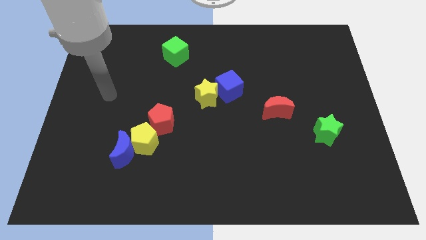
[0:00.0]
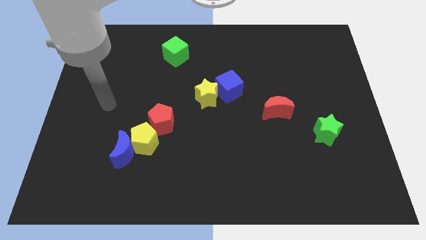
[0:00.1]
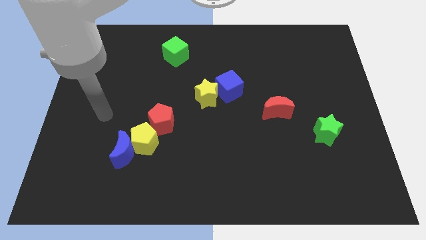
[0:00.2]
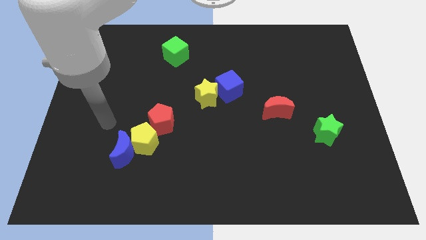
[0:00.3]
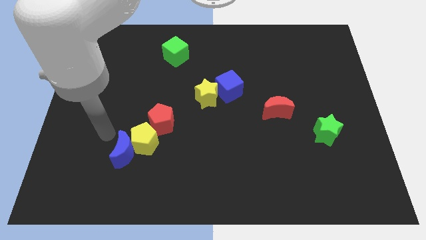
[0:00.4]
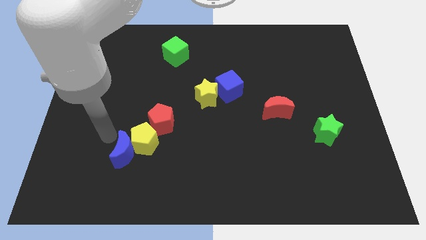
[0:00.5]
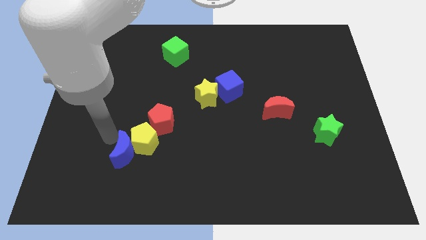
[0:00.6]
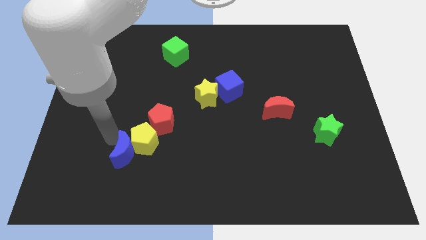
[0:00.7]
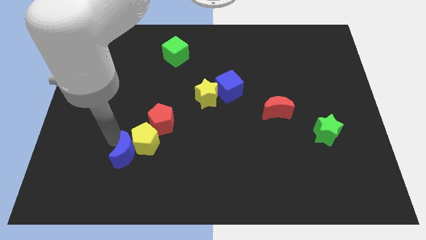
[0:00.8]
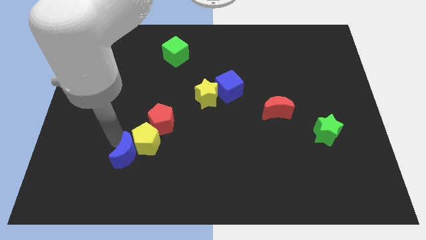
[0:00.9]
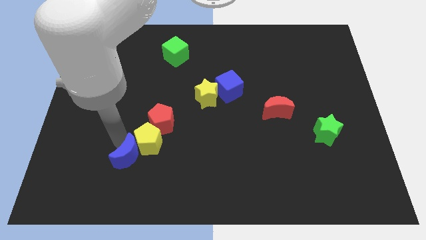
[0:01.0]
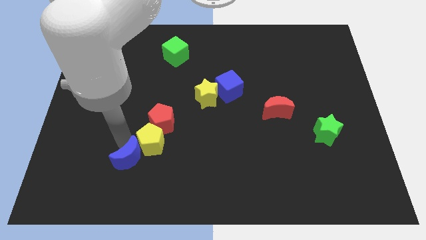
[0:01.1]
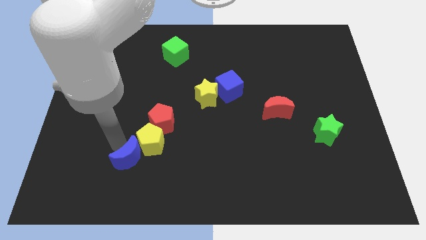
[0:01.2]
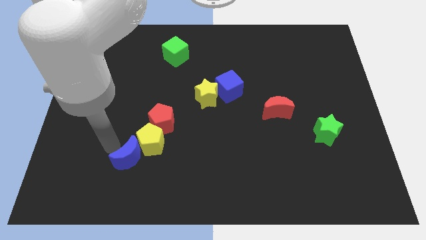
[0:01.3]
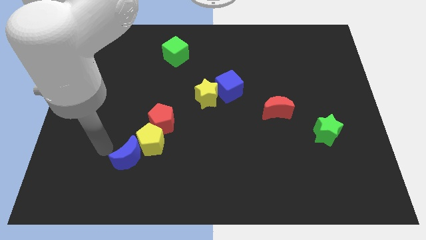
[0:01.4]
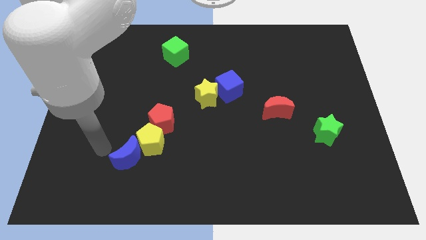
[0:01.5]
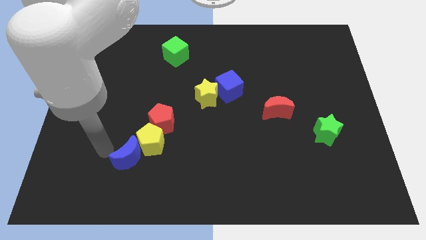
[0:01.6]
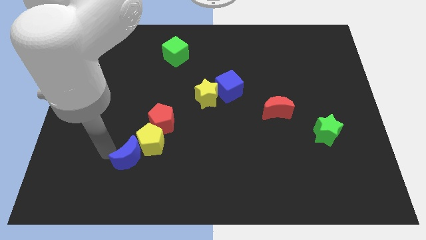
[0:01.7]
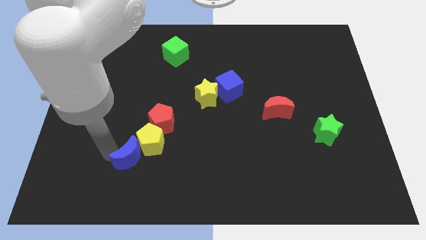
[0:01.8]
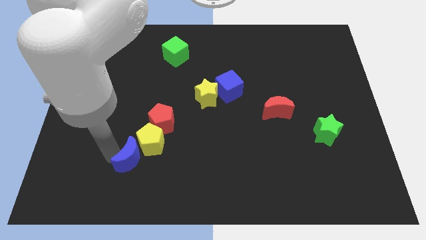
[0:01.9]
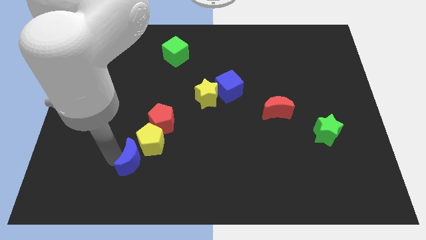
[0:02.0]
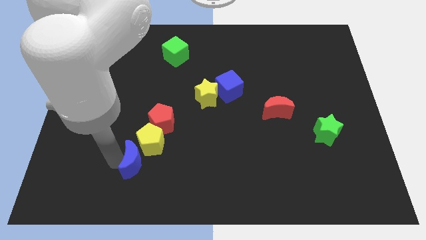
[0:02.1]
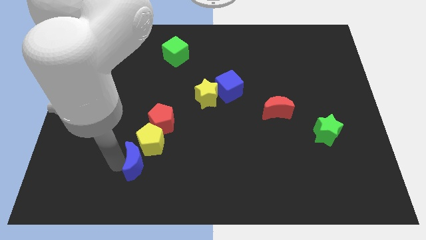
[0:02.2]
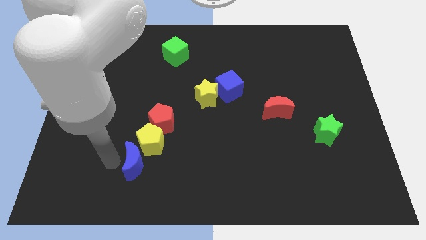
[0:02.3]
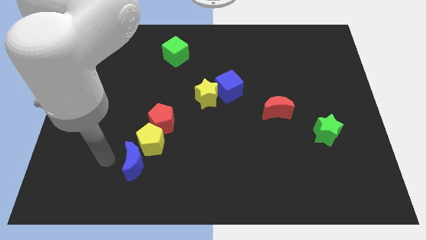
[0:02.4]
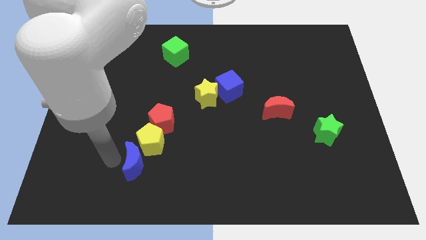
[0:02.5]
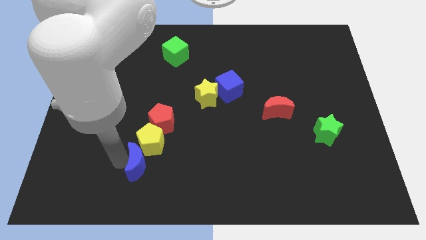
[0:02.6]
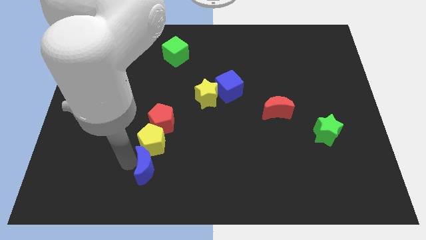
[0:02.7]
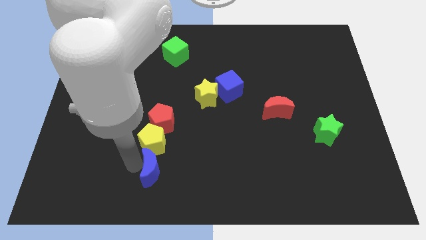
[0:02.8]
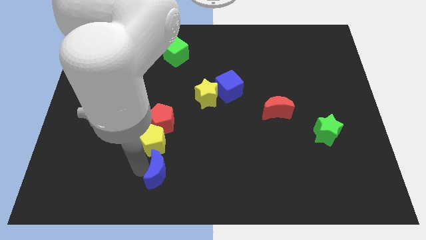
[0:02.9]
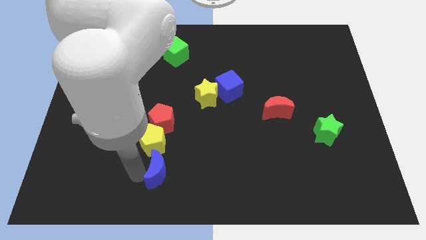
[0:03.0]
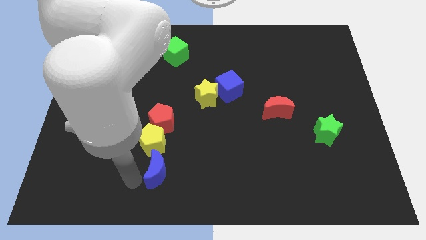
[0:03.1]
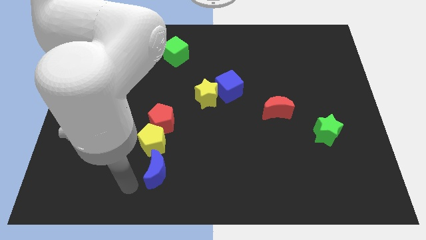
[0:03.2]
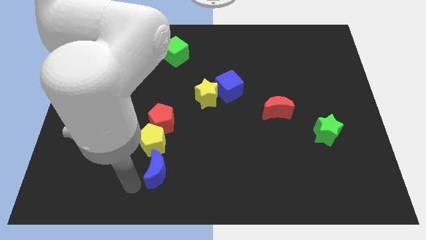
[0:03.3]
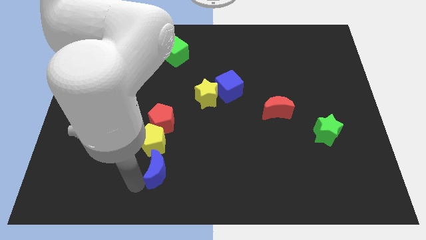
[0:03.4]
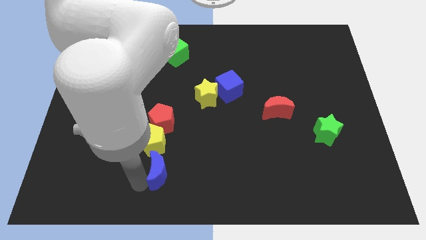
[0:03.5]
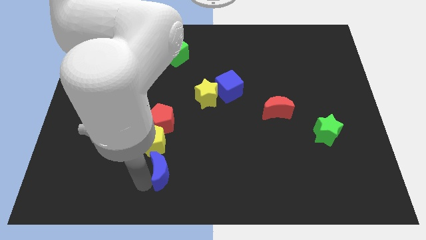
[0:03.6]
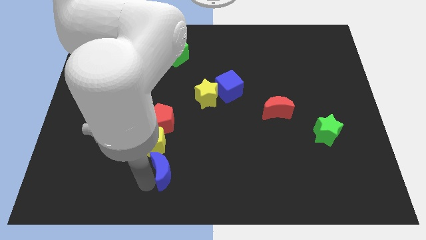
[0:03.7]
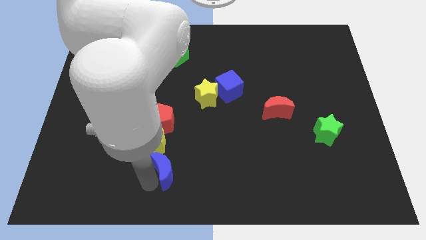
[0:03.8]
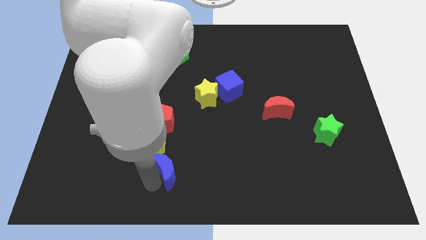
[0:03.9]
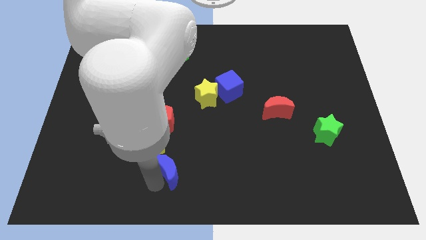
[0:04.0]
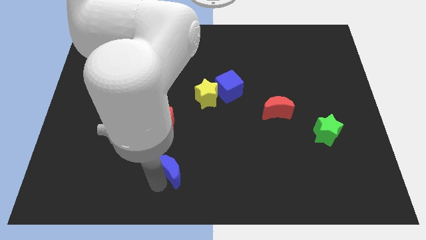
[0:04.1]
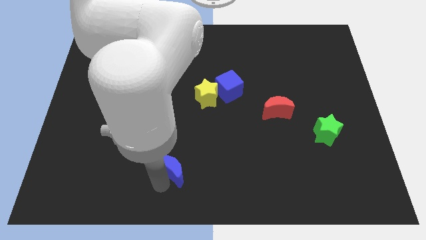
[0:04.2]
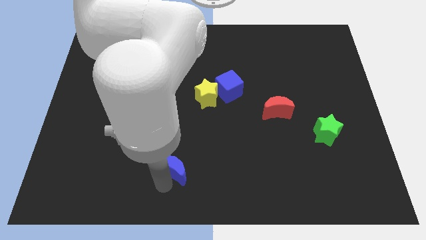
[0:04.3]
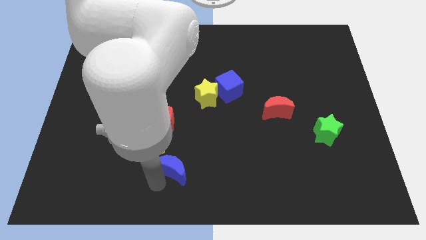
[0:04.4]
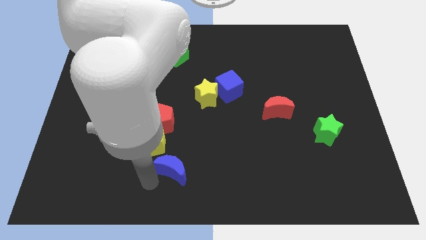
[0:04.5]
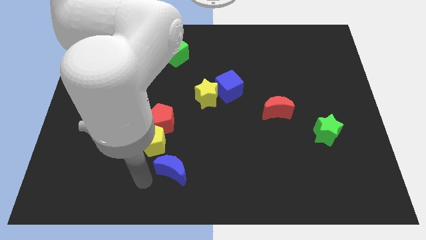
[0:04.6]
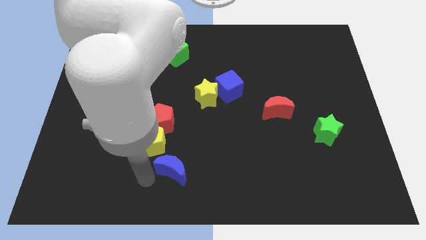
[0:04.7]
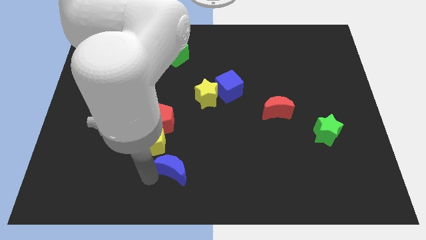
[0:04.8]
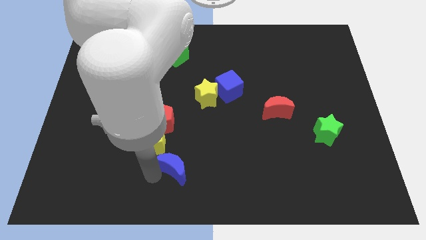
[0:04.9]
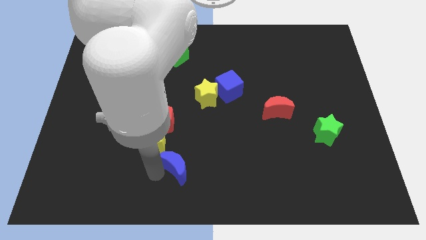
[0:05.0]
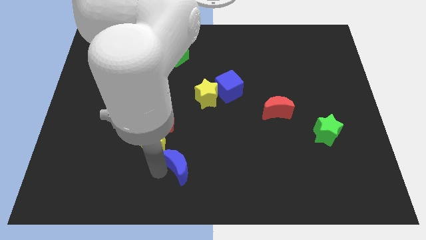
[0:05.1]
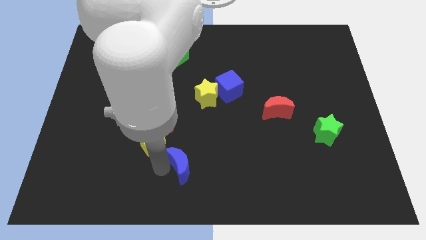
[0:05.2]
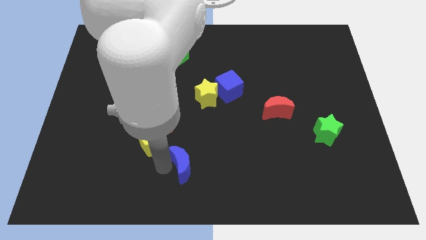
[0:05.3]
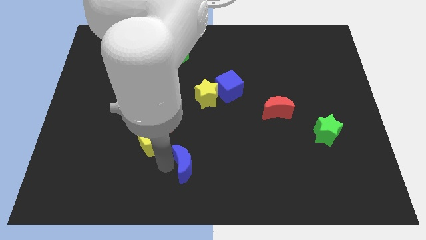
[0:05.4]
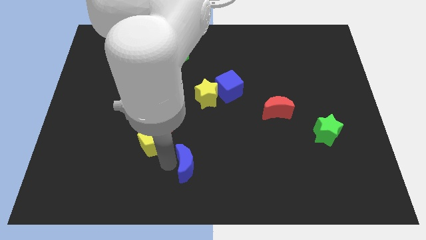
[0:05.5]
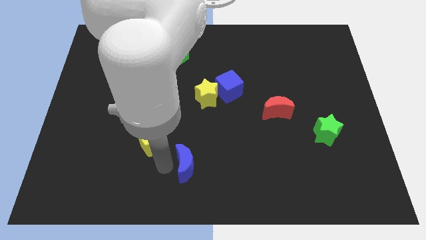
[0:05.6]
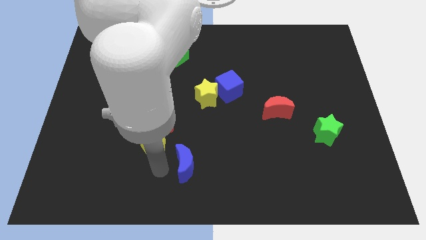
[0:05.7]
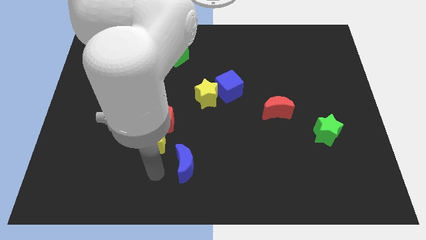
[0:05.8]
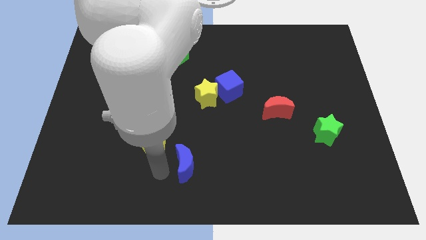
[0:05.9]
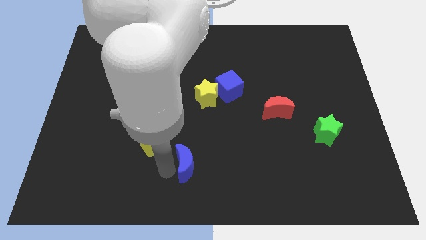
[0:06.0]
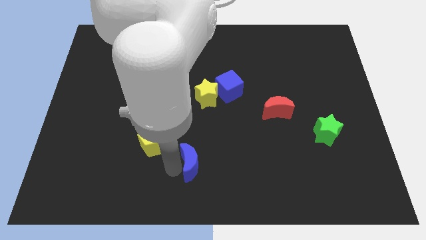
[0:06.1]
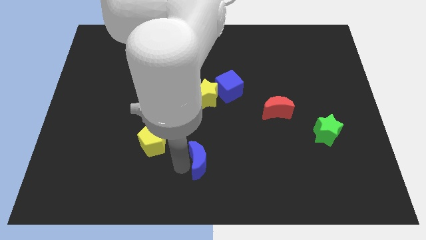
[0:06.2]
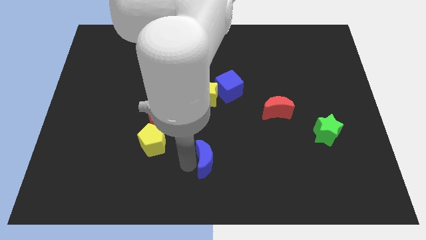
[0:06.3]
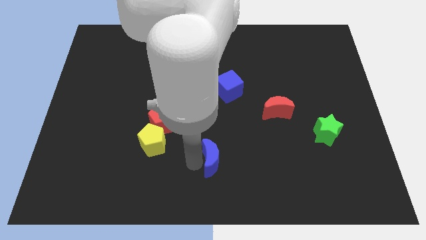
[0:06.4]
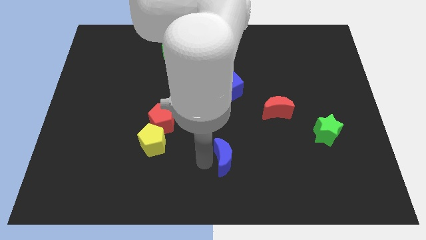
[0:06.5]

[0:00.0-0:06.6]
move the blue moon to the right

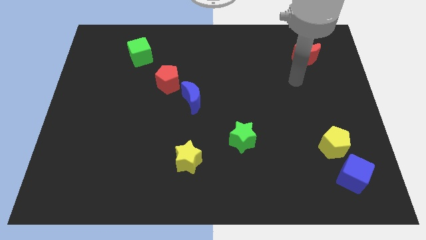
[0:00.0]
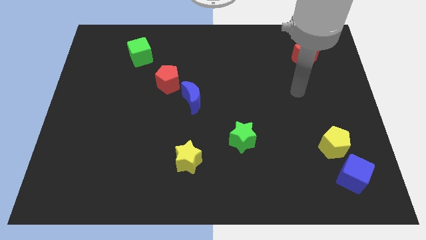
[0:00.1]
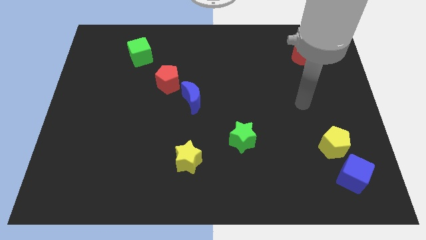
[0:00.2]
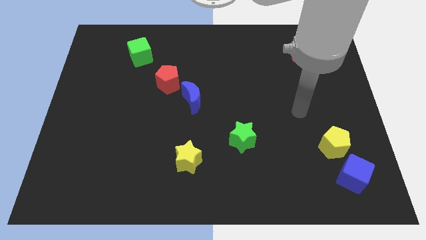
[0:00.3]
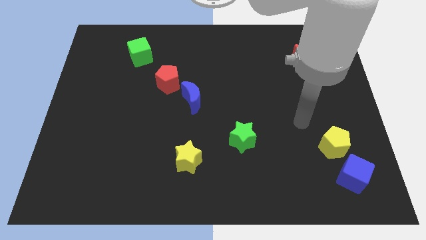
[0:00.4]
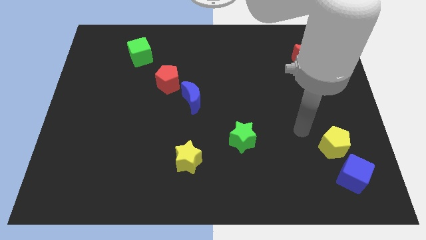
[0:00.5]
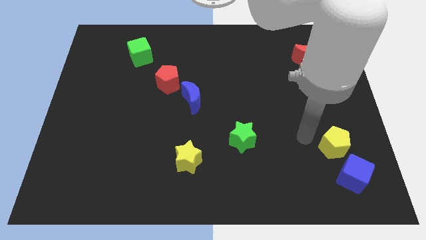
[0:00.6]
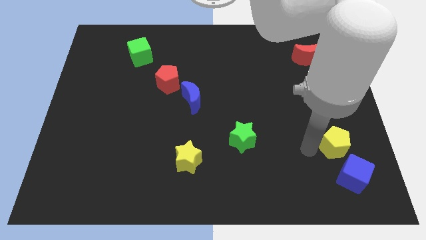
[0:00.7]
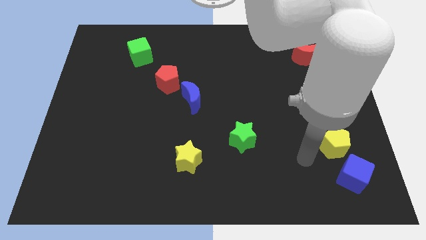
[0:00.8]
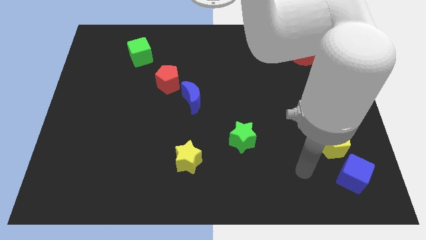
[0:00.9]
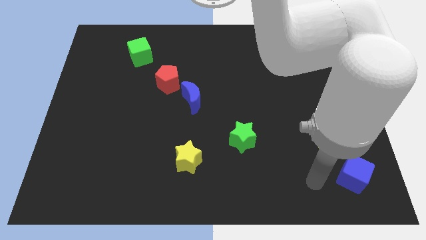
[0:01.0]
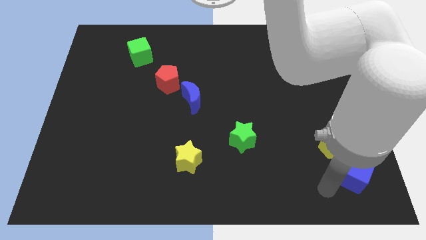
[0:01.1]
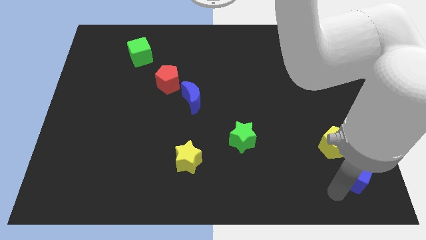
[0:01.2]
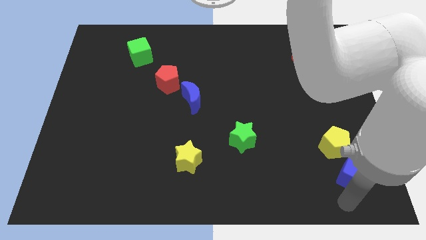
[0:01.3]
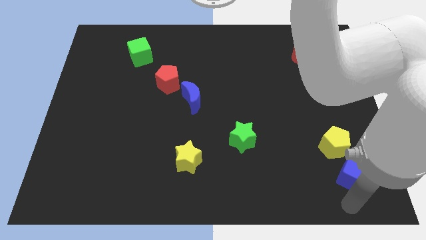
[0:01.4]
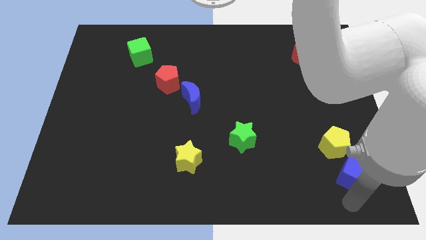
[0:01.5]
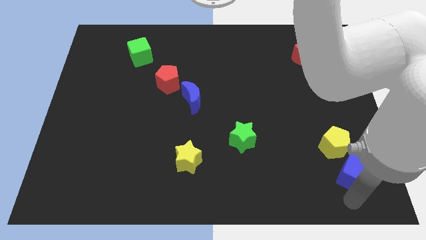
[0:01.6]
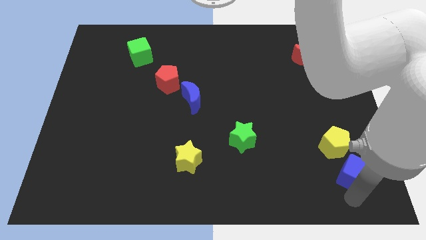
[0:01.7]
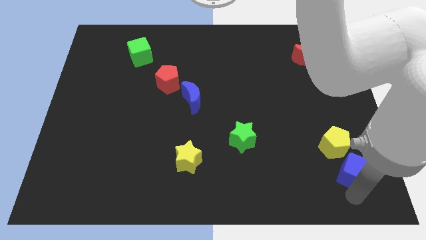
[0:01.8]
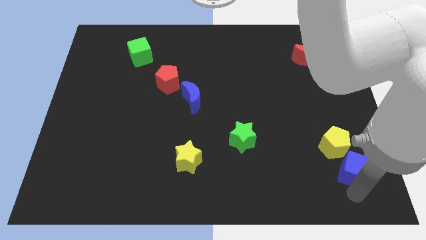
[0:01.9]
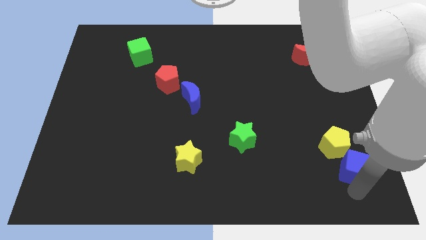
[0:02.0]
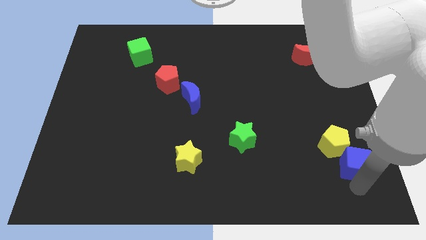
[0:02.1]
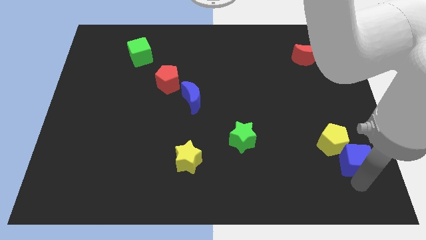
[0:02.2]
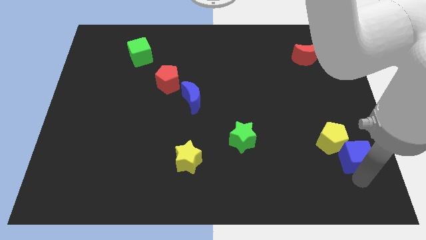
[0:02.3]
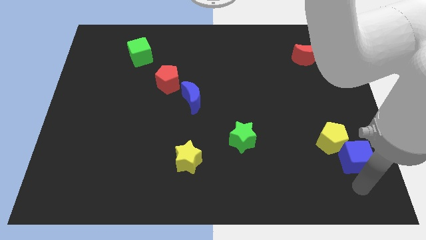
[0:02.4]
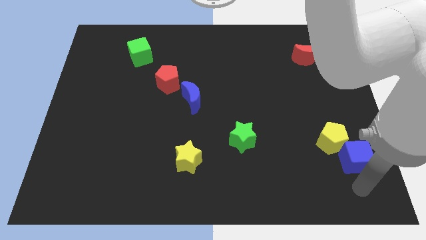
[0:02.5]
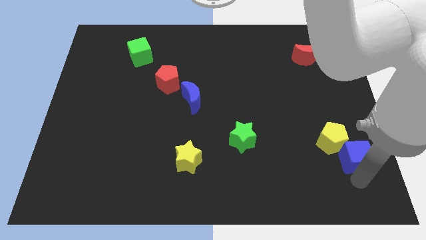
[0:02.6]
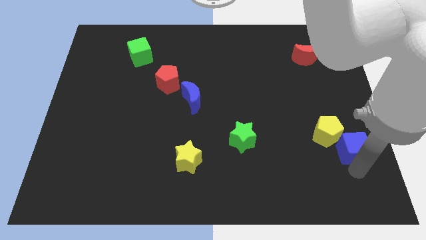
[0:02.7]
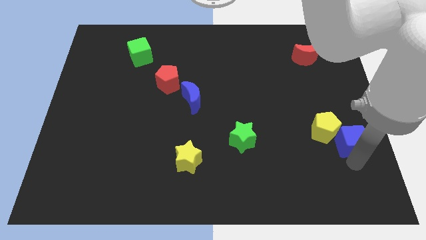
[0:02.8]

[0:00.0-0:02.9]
push the blue cube upwards somewhat
